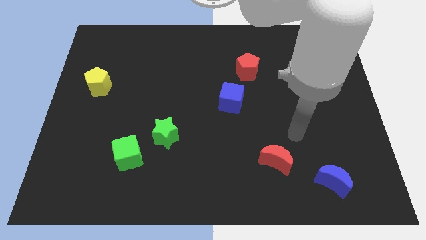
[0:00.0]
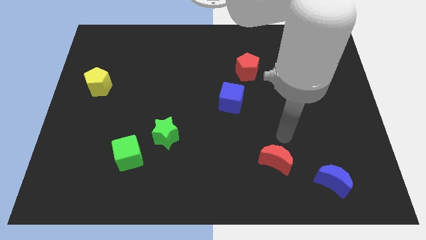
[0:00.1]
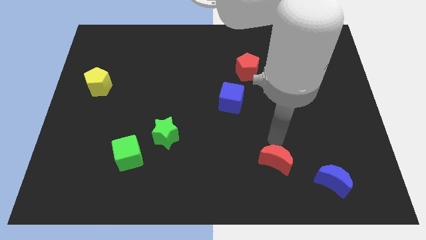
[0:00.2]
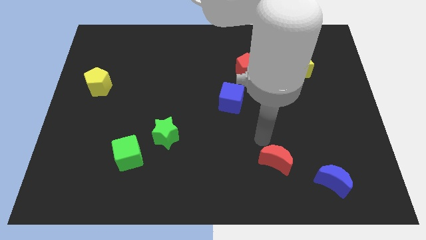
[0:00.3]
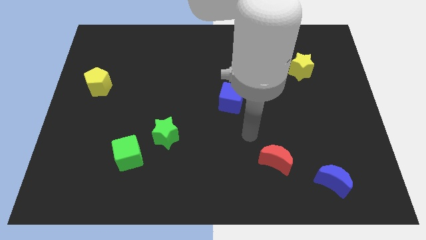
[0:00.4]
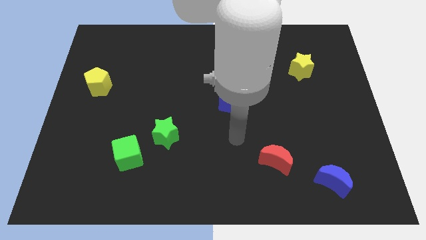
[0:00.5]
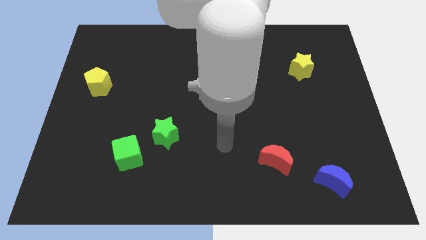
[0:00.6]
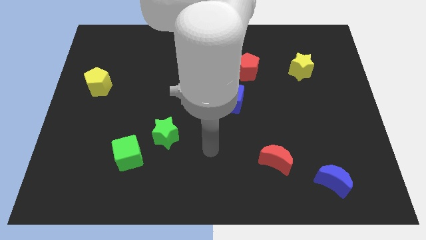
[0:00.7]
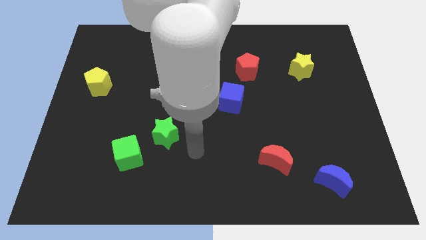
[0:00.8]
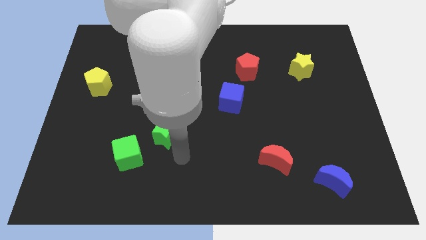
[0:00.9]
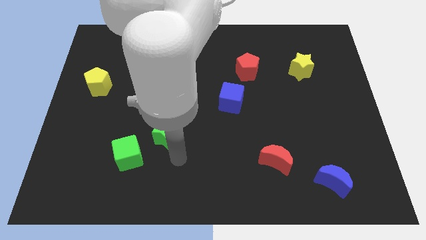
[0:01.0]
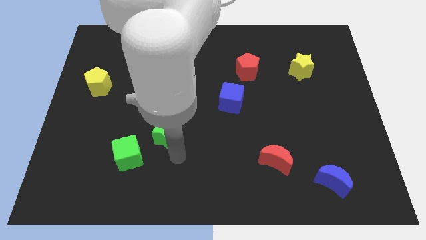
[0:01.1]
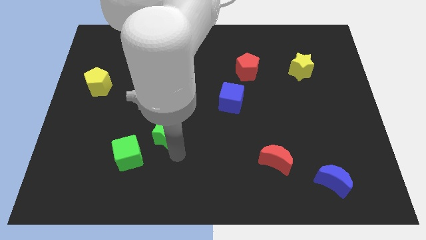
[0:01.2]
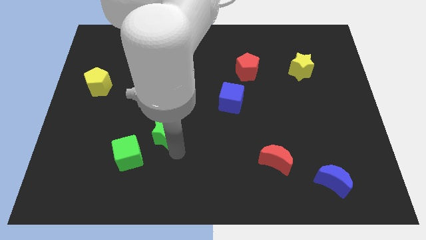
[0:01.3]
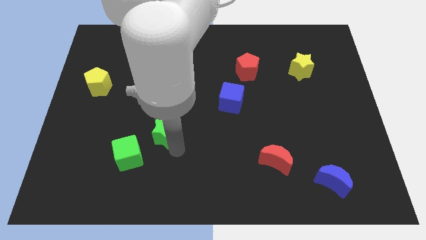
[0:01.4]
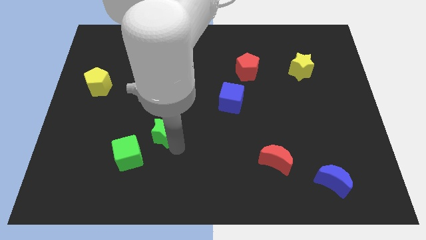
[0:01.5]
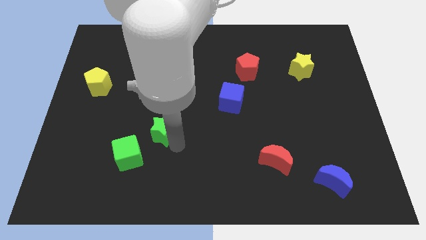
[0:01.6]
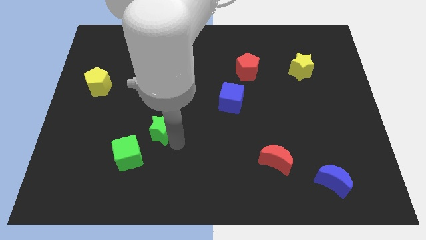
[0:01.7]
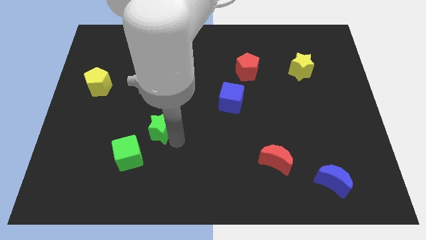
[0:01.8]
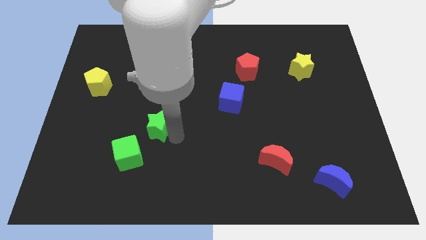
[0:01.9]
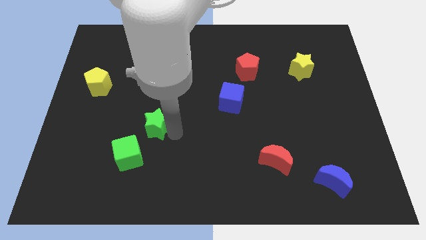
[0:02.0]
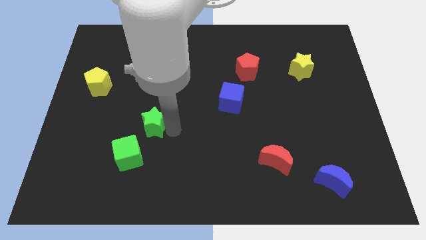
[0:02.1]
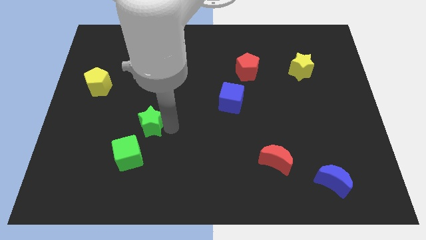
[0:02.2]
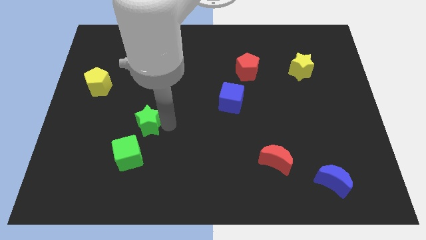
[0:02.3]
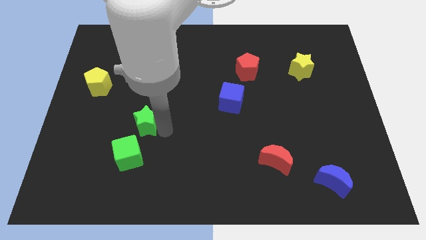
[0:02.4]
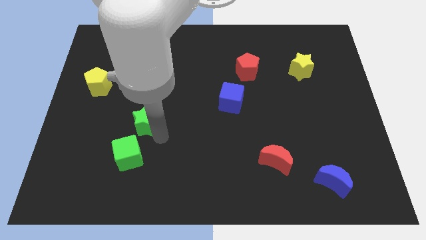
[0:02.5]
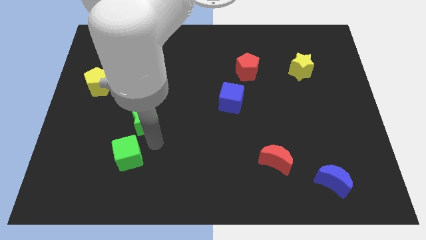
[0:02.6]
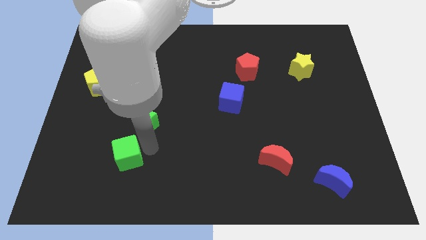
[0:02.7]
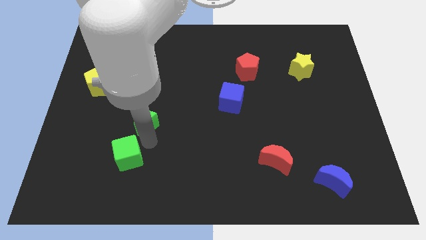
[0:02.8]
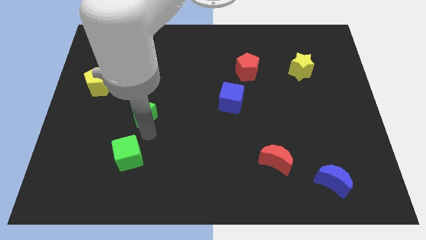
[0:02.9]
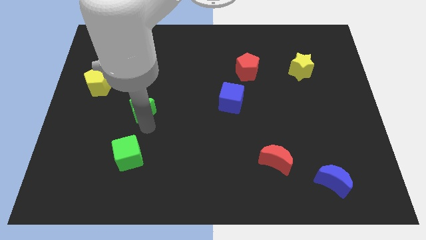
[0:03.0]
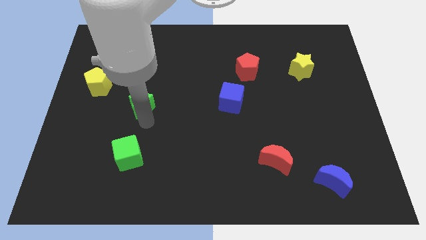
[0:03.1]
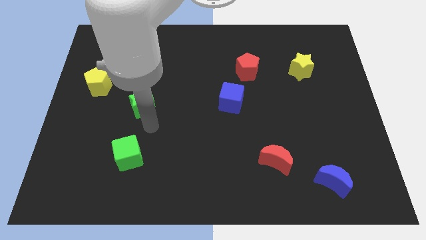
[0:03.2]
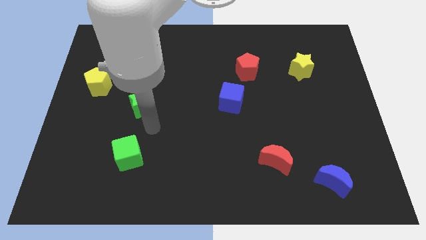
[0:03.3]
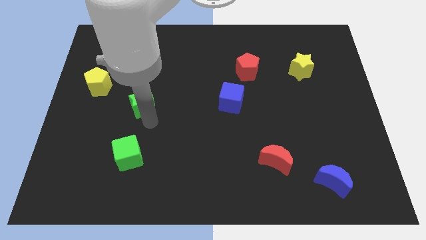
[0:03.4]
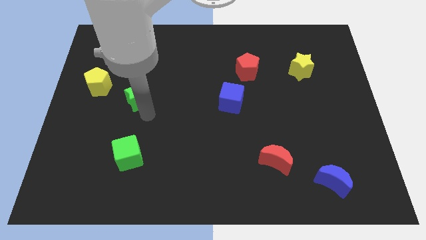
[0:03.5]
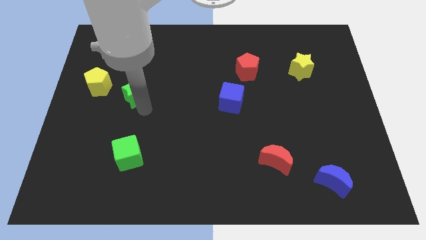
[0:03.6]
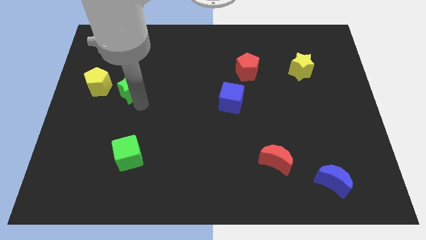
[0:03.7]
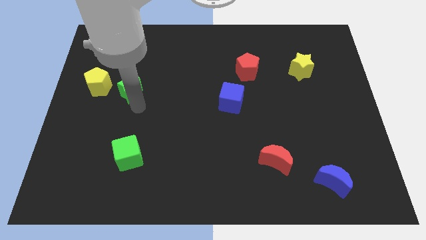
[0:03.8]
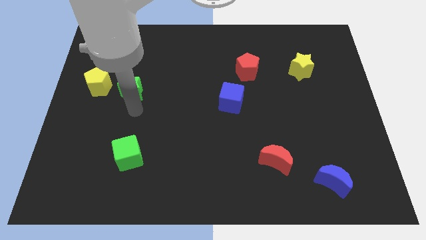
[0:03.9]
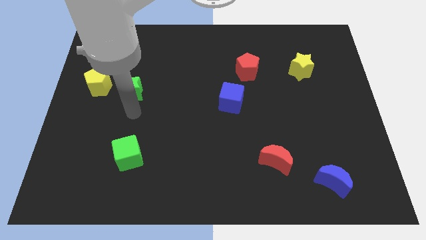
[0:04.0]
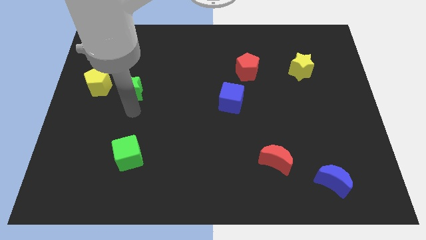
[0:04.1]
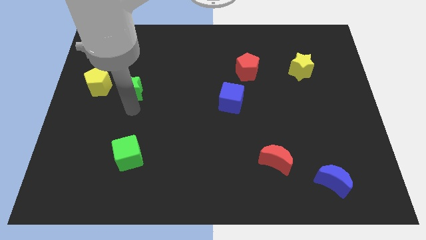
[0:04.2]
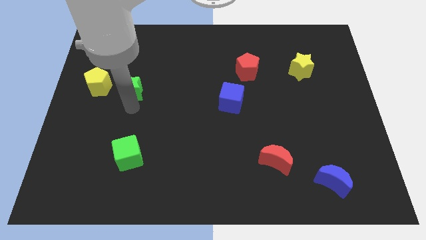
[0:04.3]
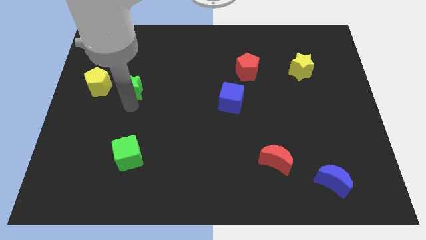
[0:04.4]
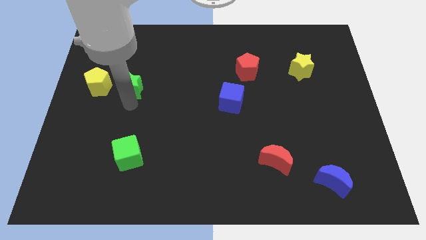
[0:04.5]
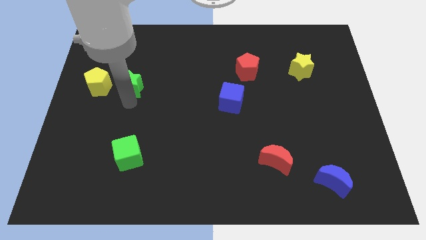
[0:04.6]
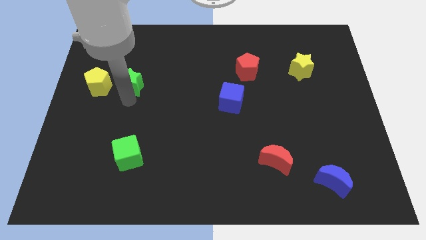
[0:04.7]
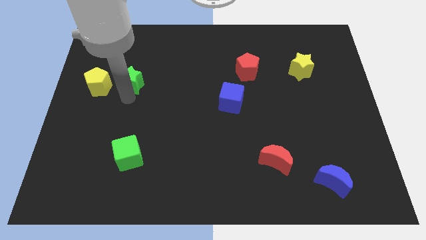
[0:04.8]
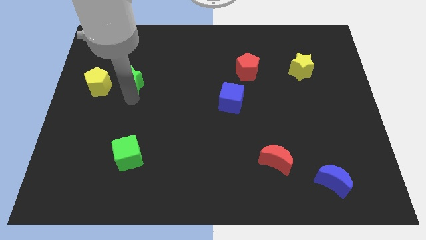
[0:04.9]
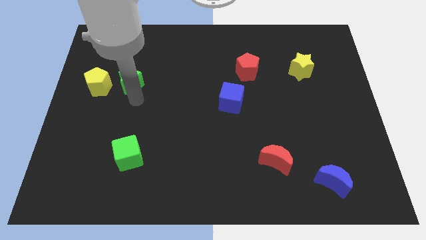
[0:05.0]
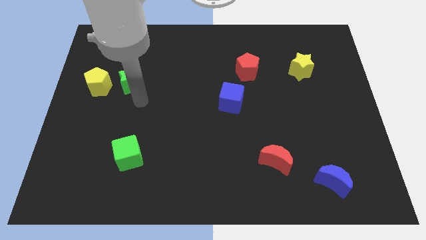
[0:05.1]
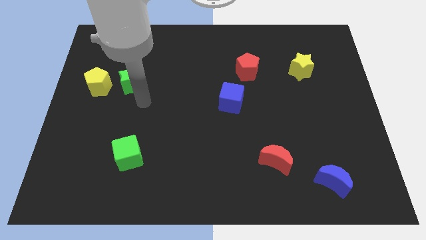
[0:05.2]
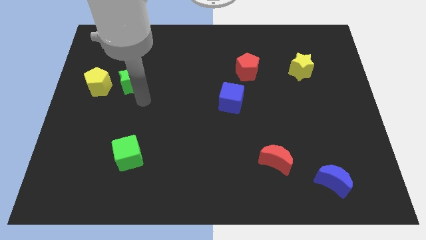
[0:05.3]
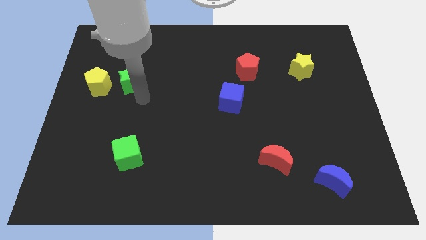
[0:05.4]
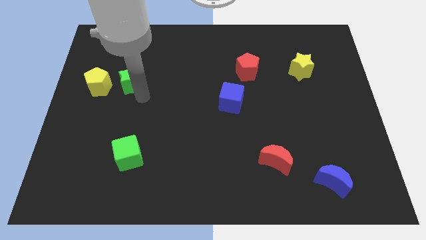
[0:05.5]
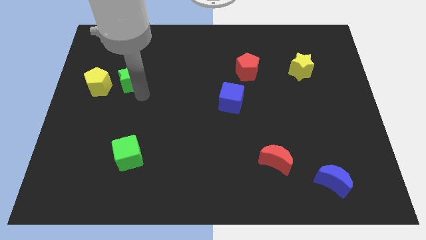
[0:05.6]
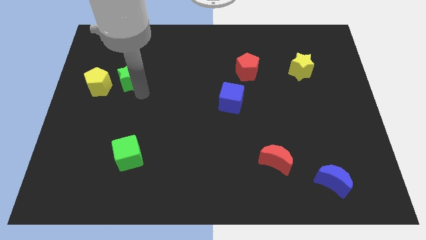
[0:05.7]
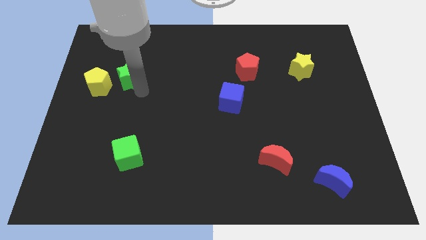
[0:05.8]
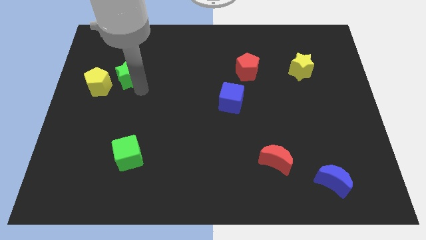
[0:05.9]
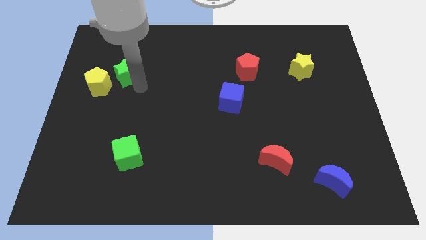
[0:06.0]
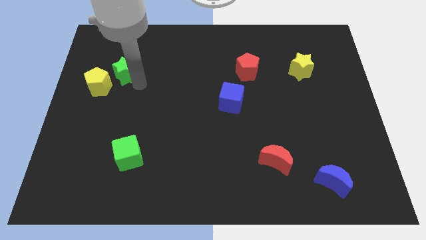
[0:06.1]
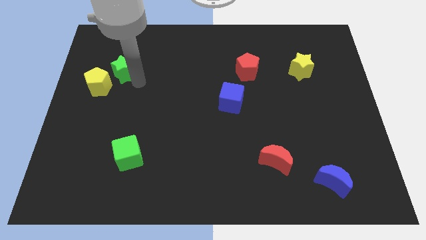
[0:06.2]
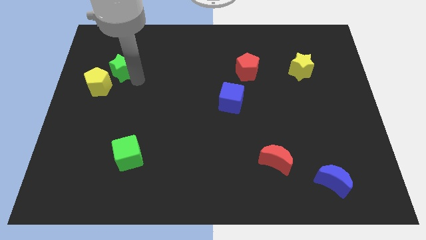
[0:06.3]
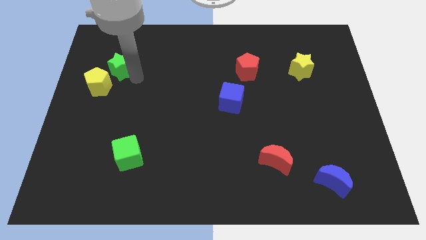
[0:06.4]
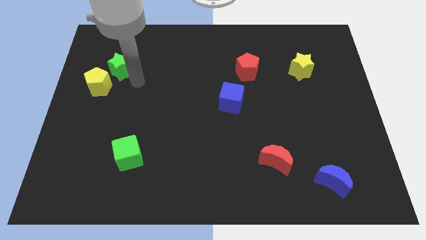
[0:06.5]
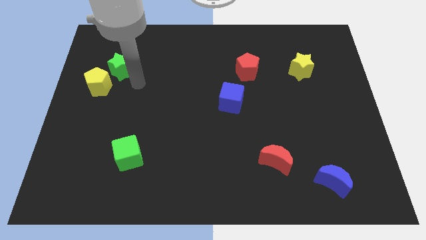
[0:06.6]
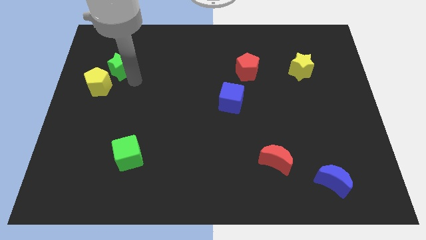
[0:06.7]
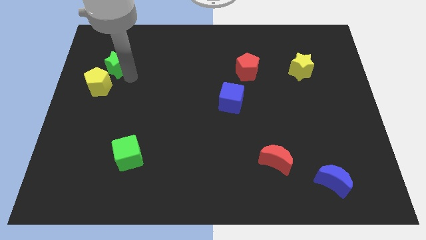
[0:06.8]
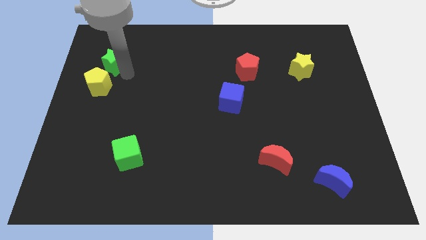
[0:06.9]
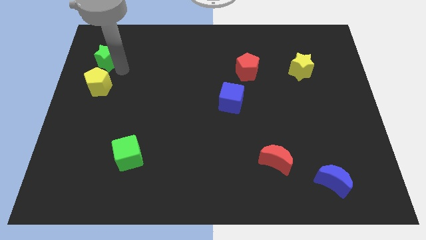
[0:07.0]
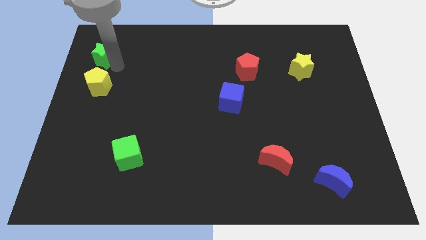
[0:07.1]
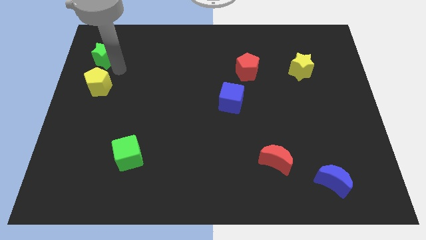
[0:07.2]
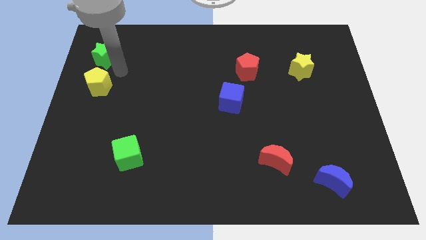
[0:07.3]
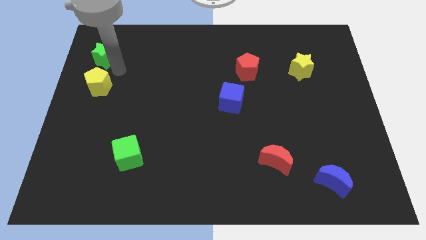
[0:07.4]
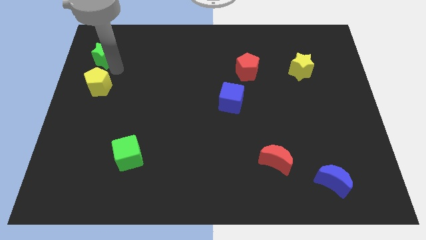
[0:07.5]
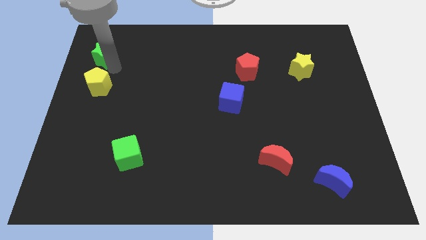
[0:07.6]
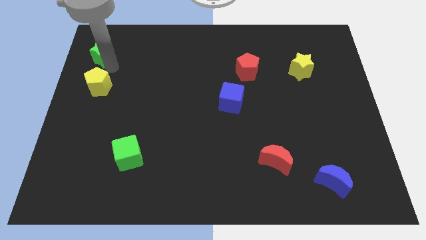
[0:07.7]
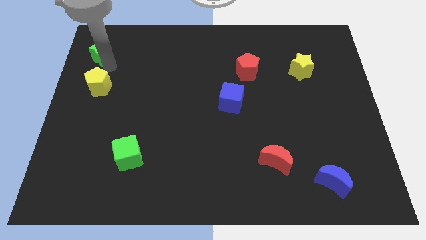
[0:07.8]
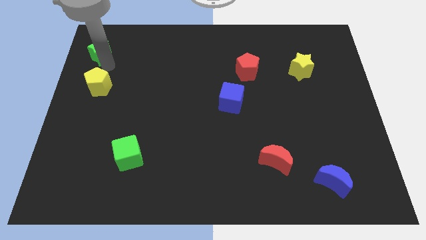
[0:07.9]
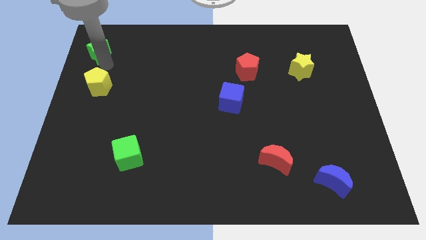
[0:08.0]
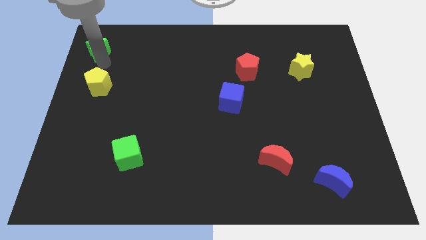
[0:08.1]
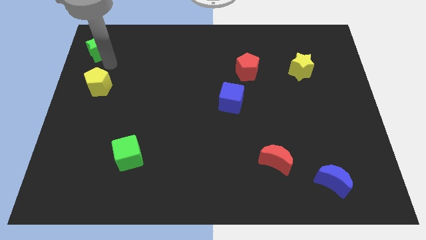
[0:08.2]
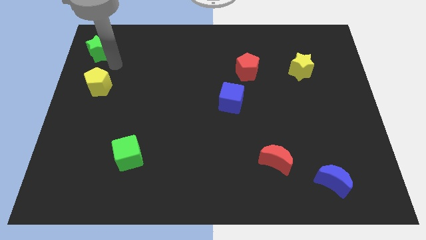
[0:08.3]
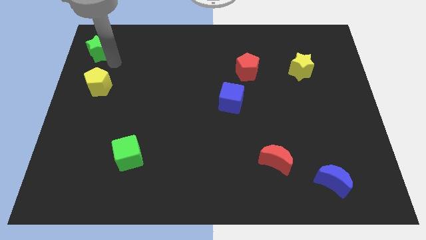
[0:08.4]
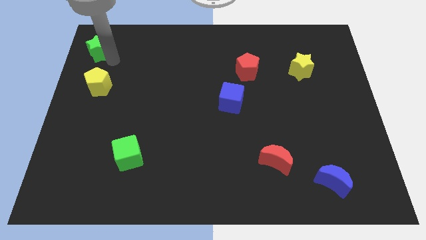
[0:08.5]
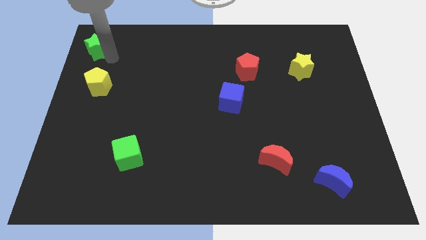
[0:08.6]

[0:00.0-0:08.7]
put the green star to the top left
